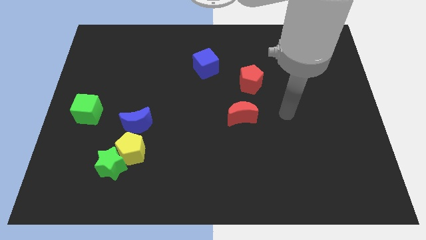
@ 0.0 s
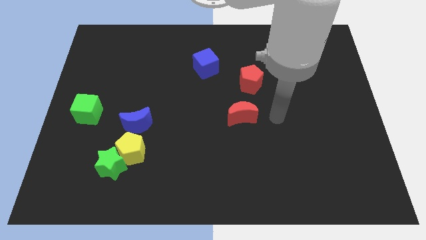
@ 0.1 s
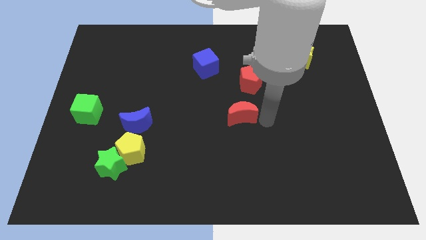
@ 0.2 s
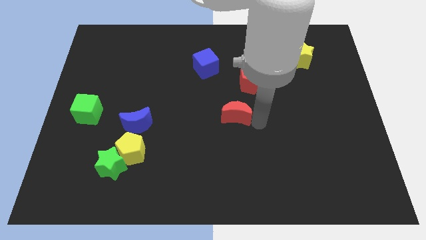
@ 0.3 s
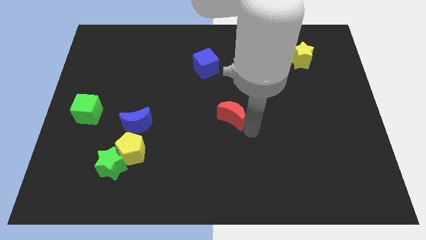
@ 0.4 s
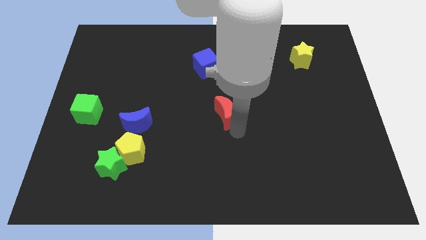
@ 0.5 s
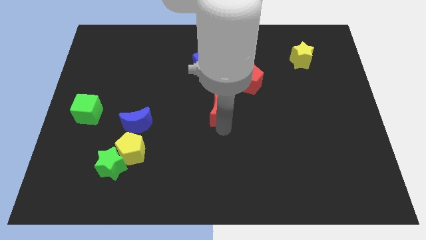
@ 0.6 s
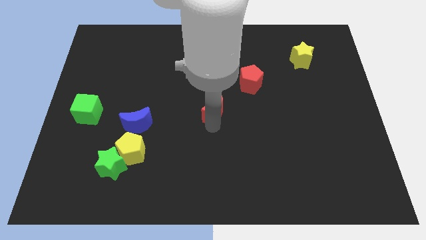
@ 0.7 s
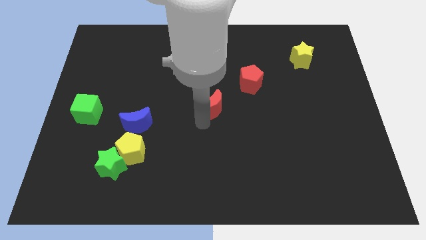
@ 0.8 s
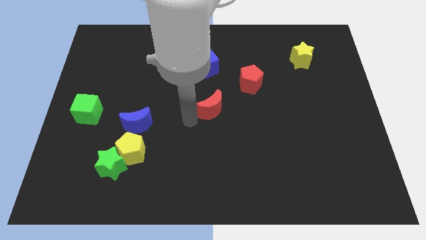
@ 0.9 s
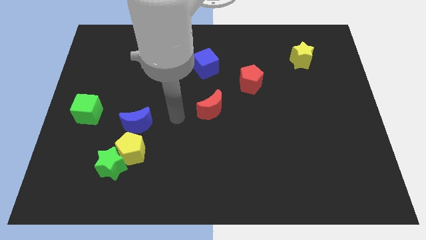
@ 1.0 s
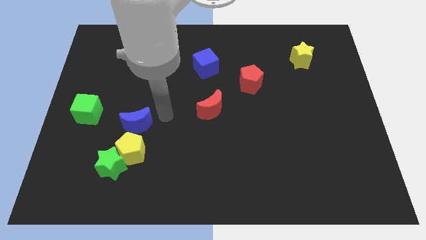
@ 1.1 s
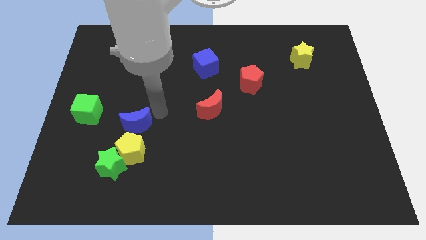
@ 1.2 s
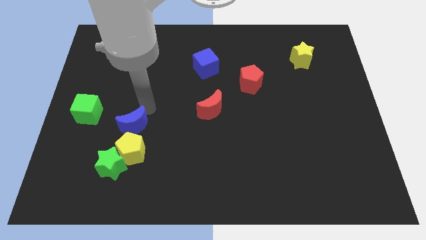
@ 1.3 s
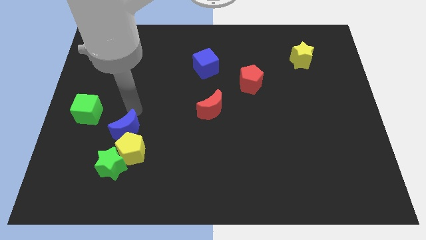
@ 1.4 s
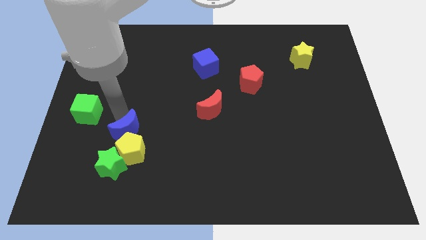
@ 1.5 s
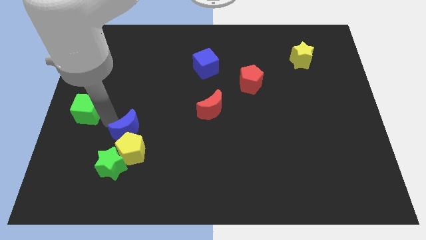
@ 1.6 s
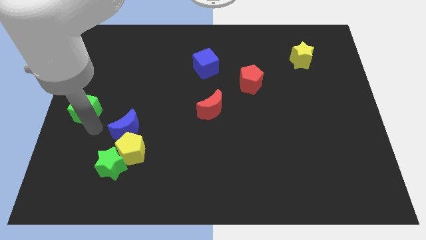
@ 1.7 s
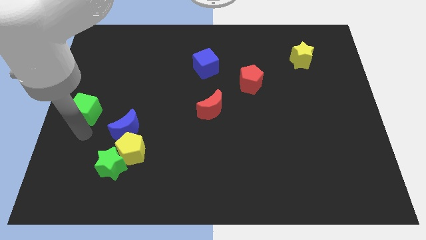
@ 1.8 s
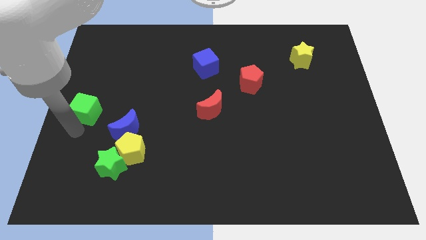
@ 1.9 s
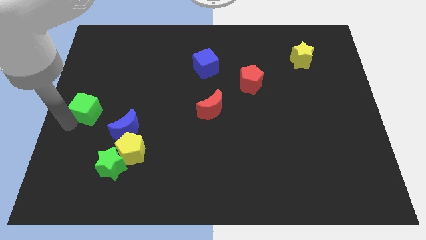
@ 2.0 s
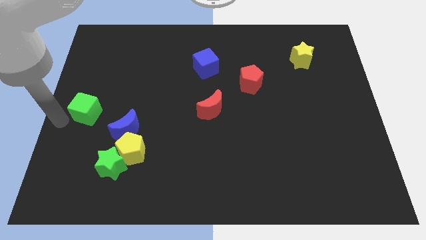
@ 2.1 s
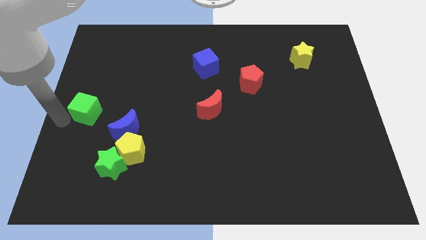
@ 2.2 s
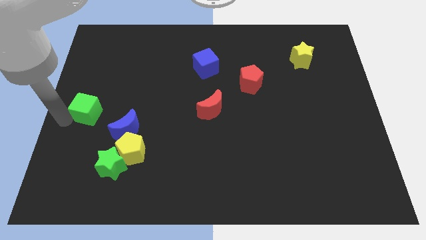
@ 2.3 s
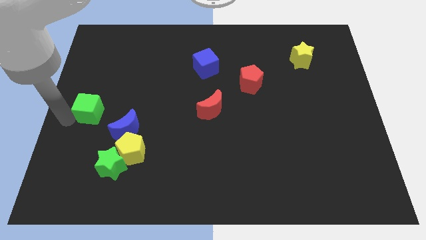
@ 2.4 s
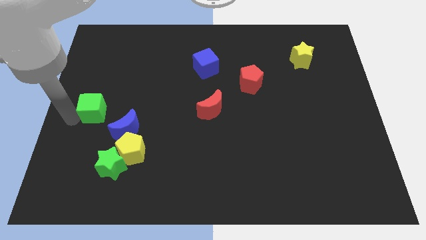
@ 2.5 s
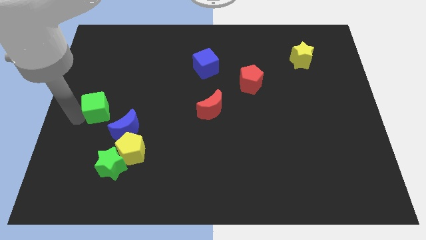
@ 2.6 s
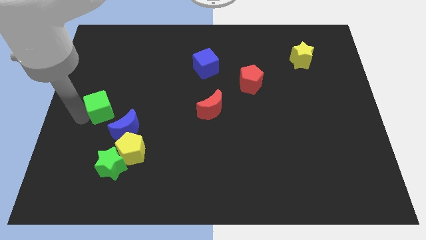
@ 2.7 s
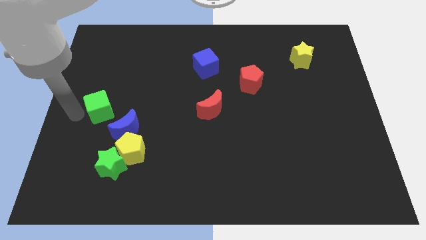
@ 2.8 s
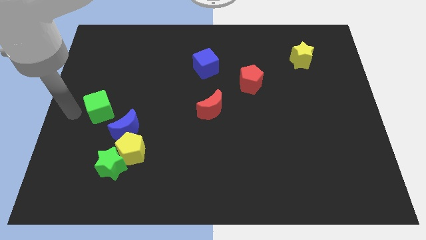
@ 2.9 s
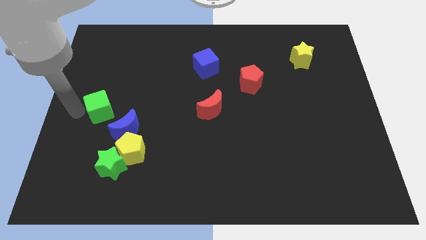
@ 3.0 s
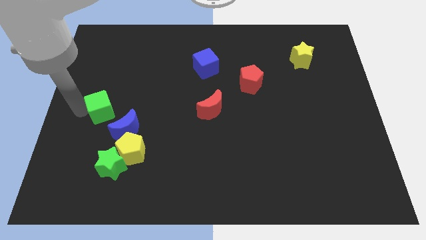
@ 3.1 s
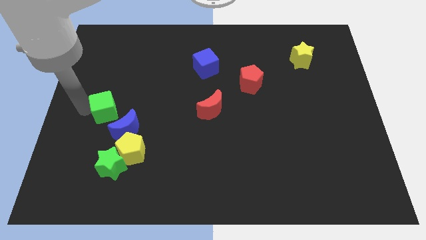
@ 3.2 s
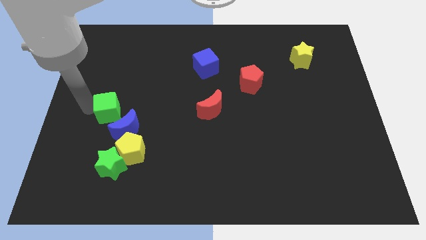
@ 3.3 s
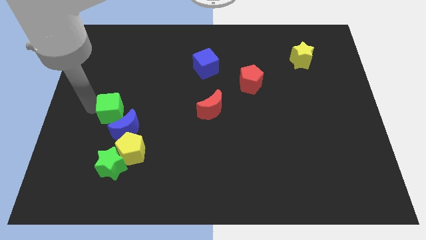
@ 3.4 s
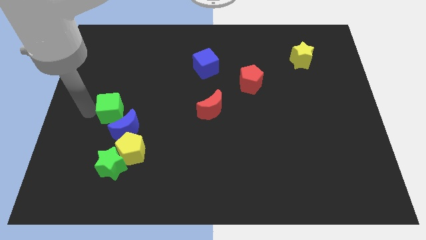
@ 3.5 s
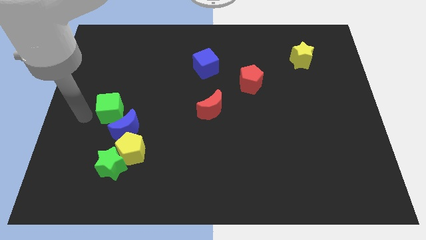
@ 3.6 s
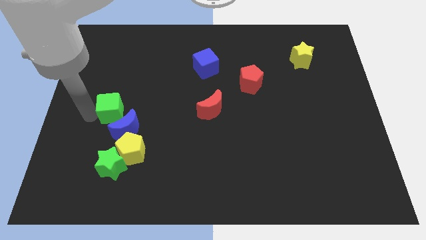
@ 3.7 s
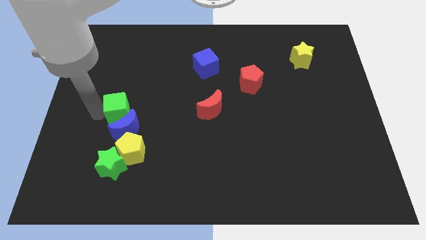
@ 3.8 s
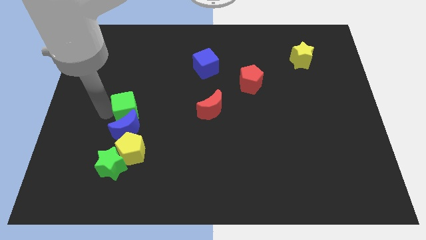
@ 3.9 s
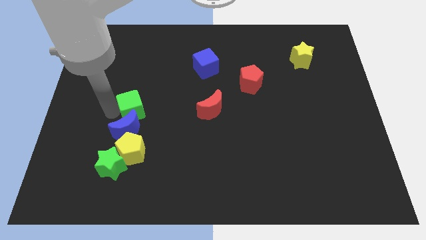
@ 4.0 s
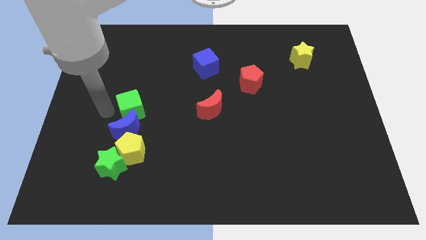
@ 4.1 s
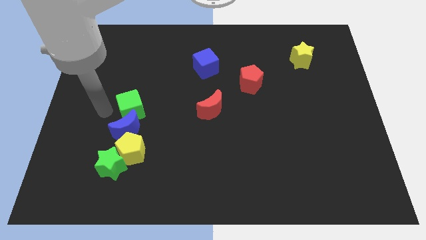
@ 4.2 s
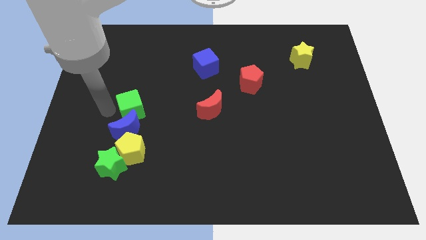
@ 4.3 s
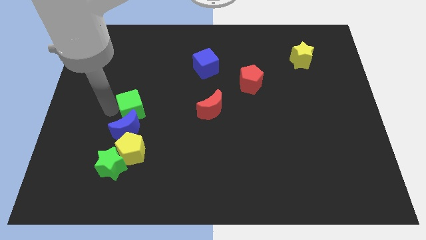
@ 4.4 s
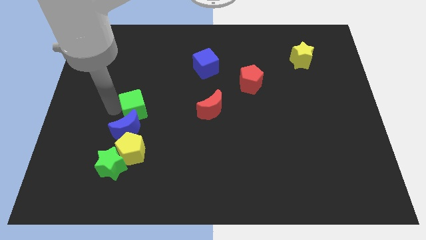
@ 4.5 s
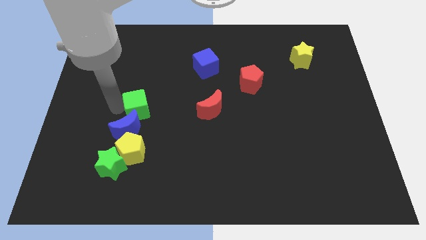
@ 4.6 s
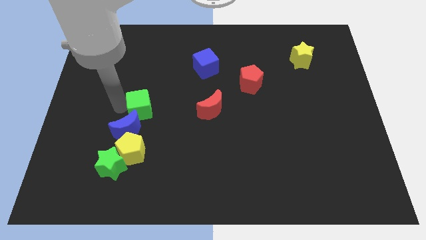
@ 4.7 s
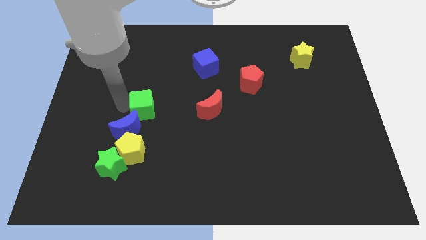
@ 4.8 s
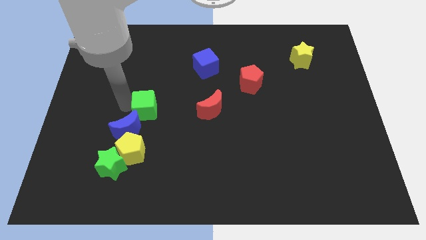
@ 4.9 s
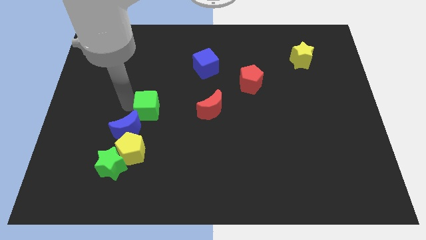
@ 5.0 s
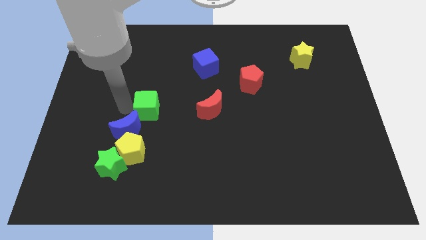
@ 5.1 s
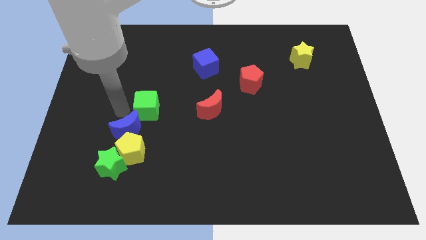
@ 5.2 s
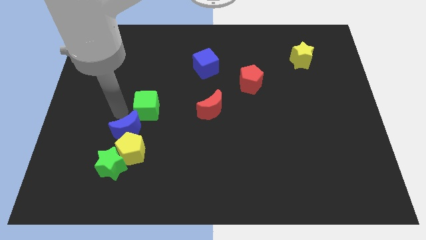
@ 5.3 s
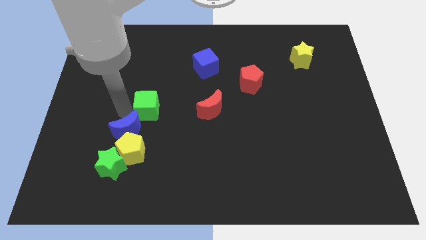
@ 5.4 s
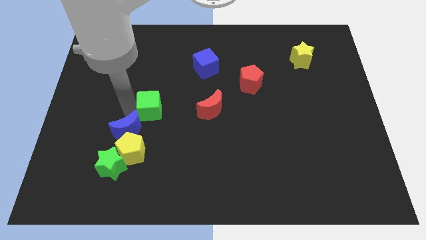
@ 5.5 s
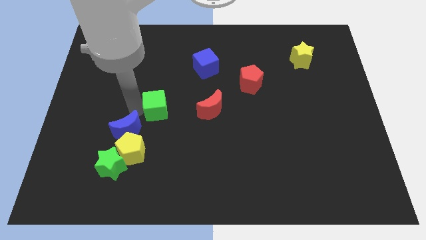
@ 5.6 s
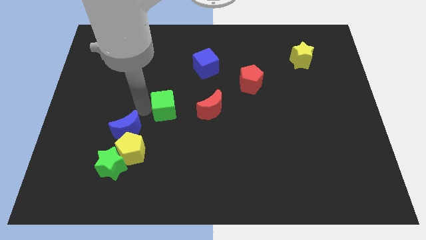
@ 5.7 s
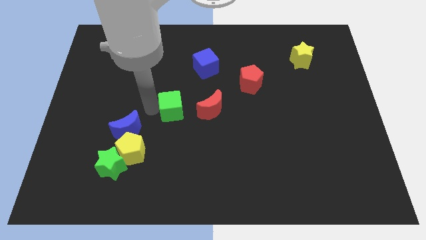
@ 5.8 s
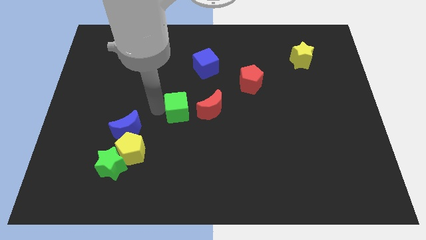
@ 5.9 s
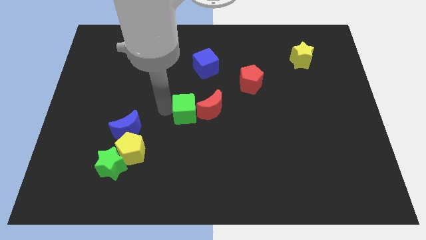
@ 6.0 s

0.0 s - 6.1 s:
move the green cube close to the red moon

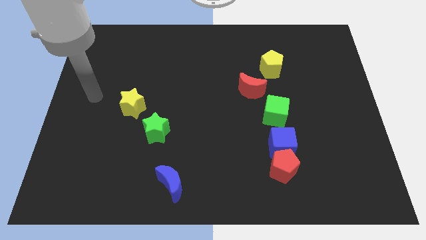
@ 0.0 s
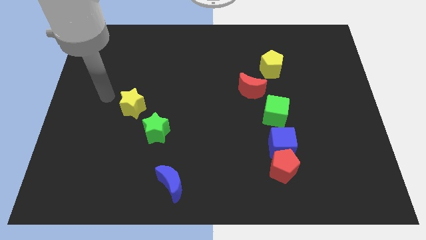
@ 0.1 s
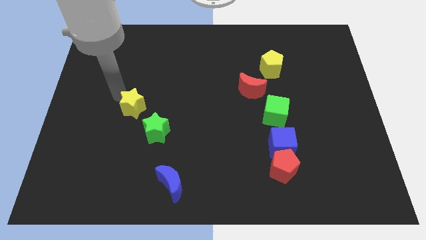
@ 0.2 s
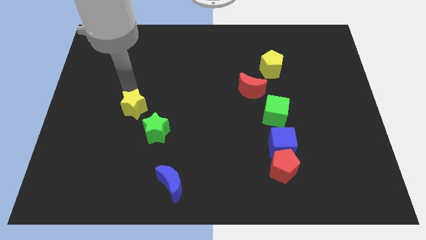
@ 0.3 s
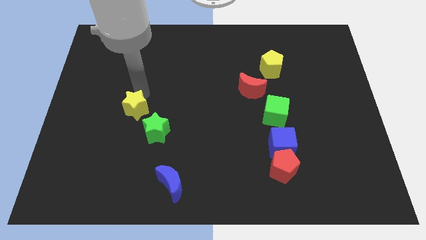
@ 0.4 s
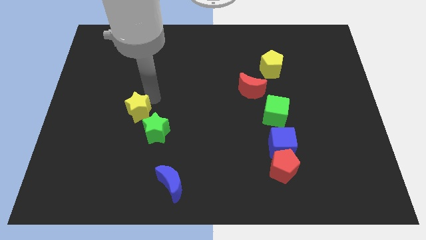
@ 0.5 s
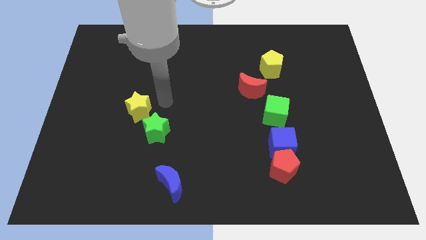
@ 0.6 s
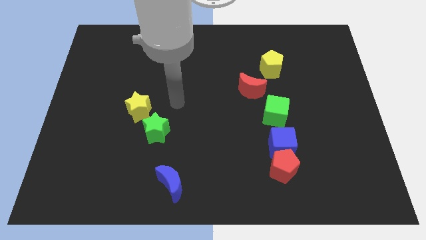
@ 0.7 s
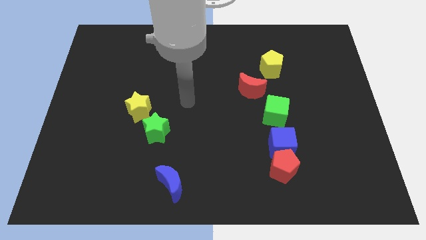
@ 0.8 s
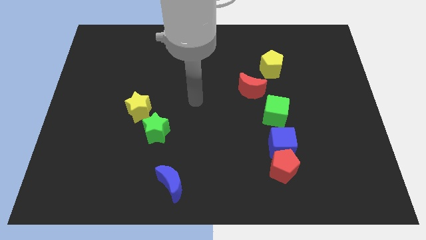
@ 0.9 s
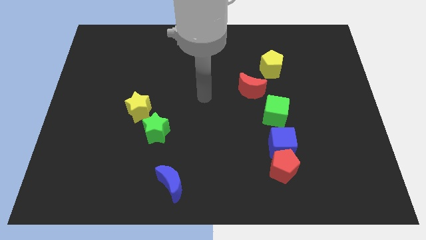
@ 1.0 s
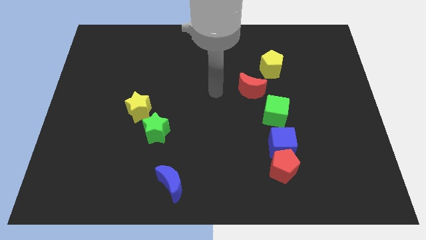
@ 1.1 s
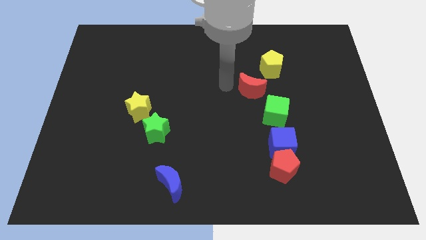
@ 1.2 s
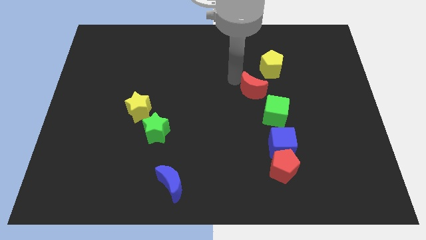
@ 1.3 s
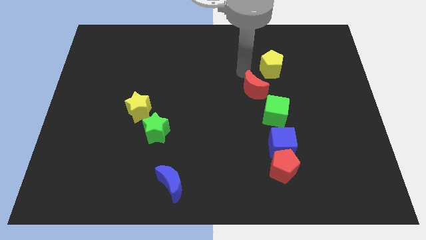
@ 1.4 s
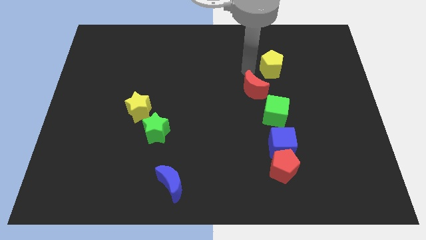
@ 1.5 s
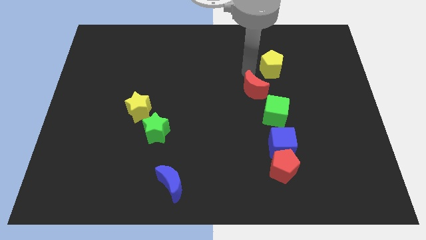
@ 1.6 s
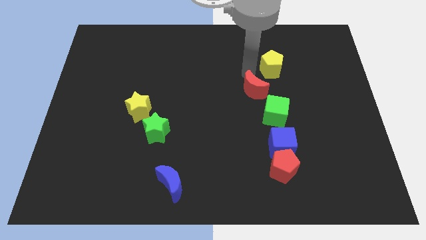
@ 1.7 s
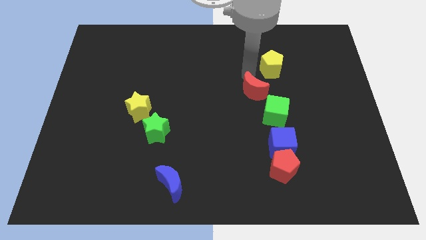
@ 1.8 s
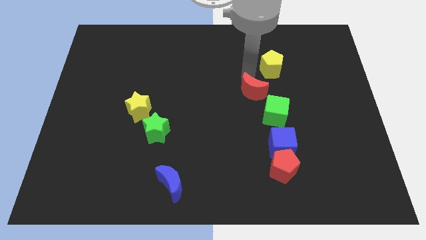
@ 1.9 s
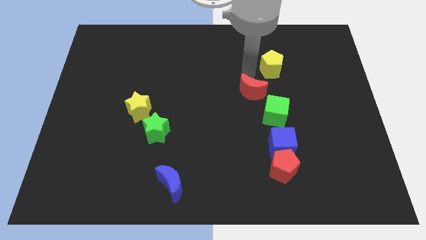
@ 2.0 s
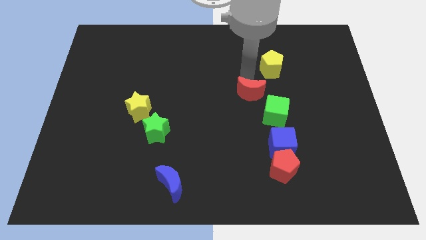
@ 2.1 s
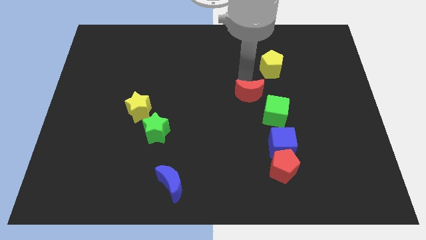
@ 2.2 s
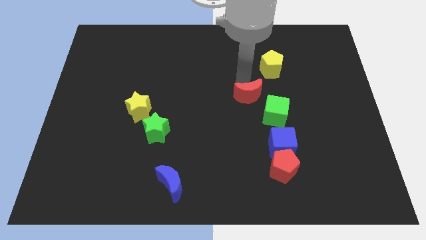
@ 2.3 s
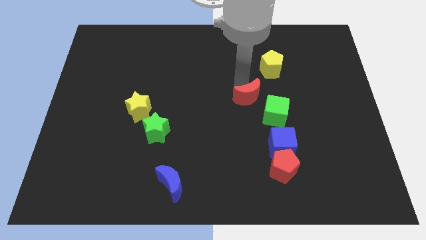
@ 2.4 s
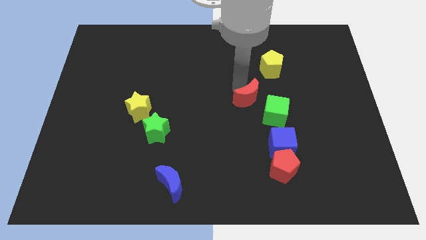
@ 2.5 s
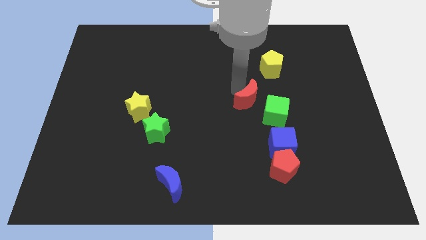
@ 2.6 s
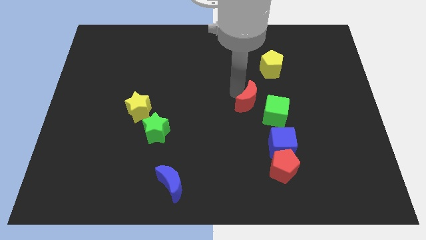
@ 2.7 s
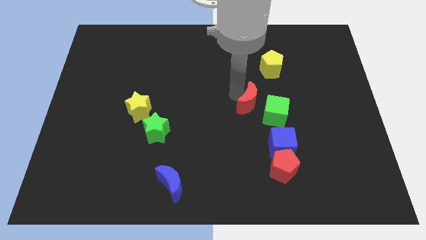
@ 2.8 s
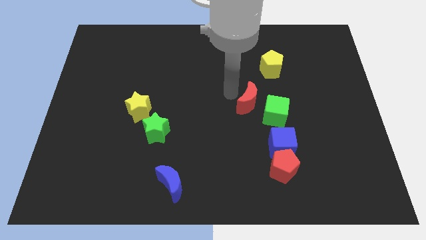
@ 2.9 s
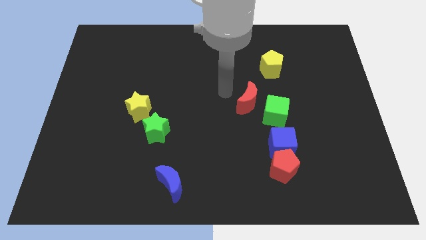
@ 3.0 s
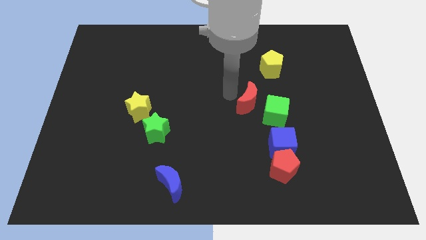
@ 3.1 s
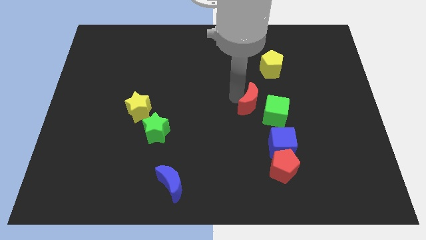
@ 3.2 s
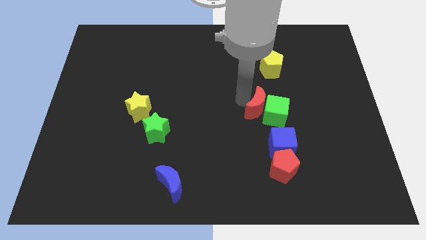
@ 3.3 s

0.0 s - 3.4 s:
push the red moon close to the green cube
